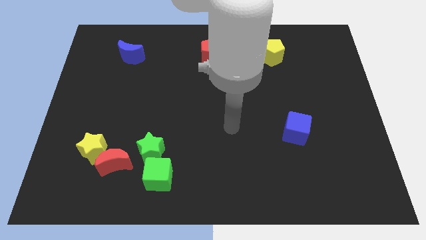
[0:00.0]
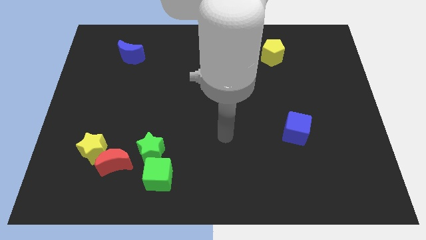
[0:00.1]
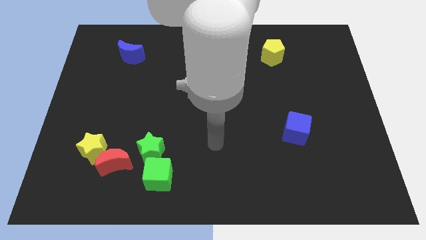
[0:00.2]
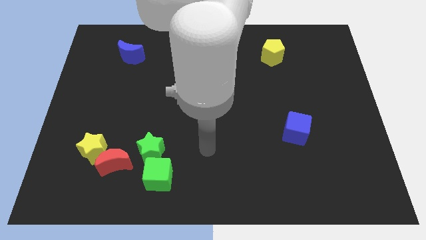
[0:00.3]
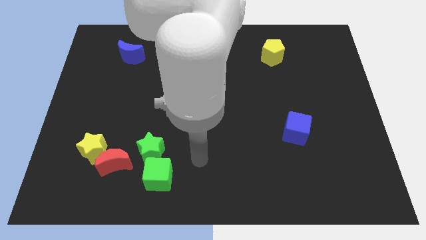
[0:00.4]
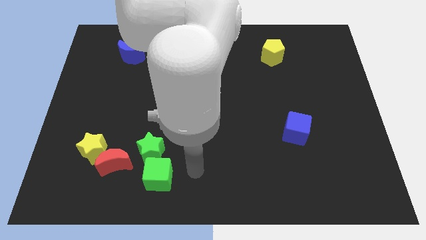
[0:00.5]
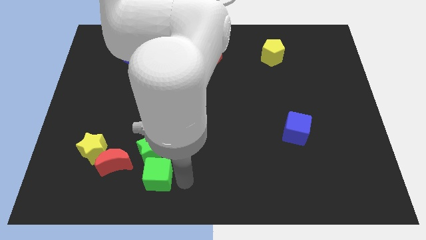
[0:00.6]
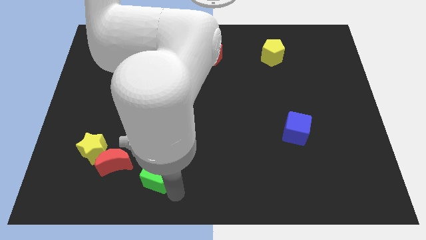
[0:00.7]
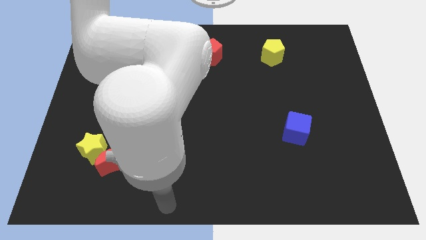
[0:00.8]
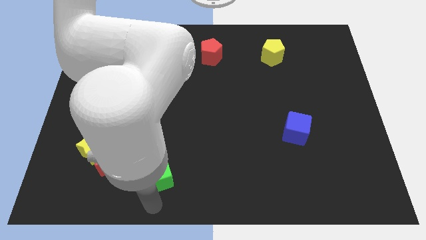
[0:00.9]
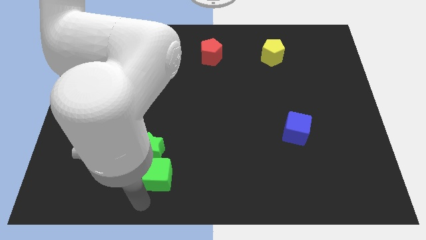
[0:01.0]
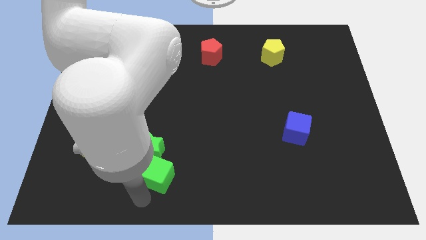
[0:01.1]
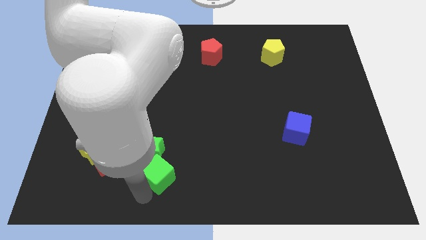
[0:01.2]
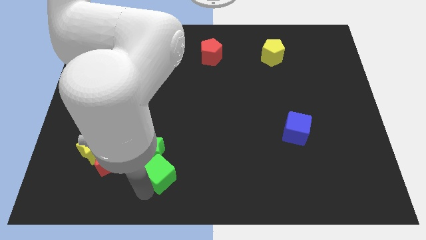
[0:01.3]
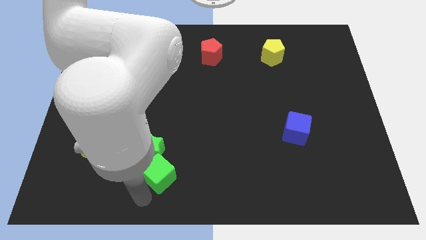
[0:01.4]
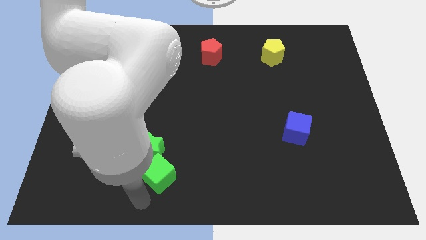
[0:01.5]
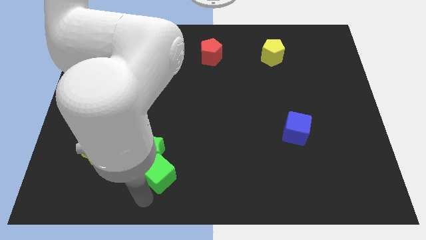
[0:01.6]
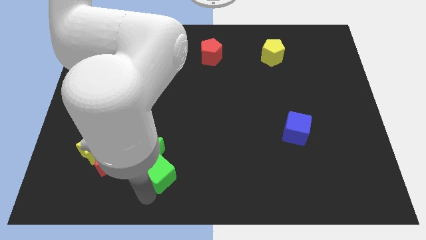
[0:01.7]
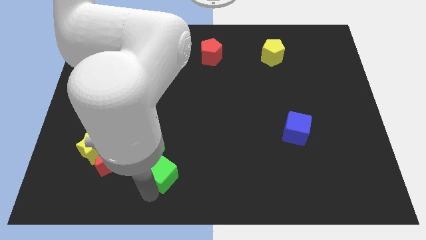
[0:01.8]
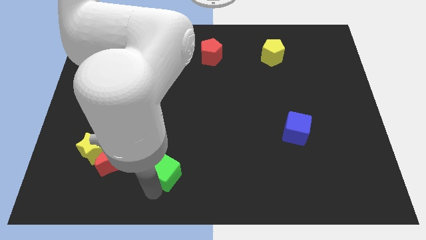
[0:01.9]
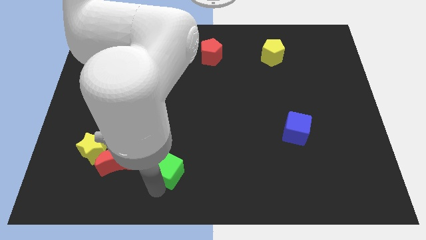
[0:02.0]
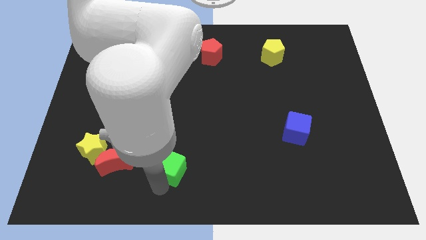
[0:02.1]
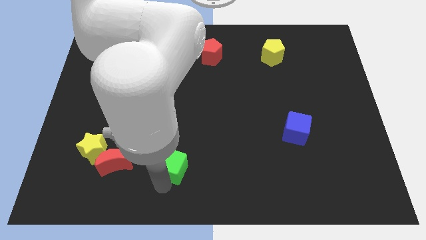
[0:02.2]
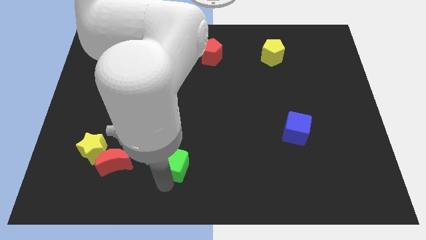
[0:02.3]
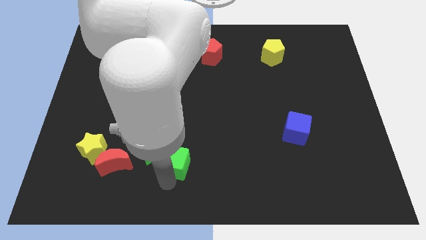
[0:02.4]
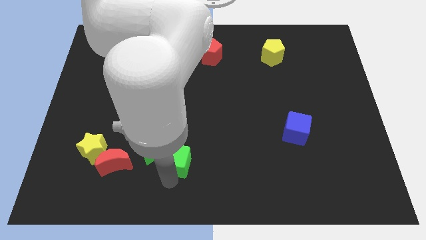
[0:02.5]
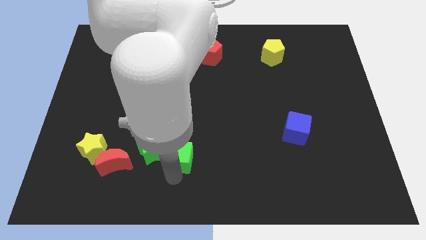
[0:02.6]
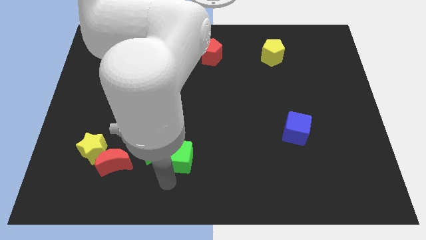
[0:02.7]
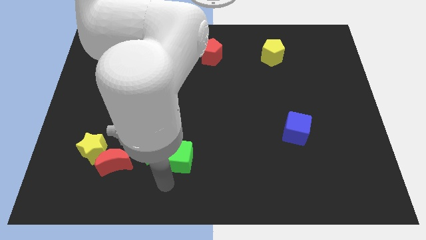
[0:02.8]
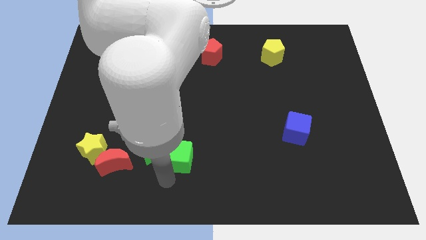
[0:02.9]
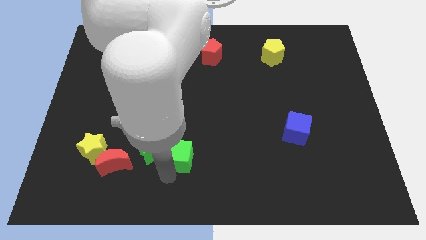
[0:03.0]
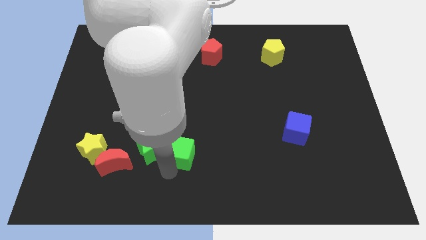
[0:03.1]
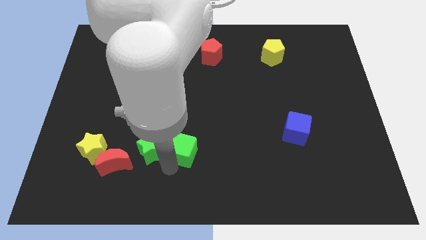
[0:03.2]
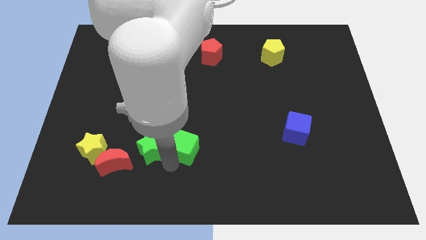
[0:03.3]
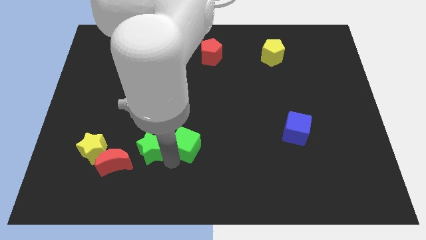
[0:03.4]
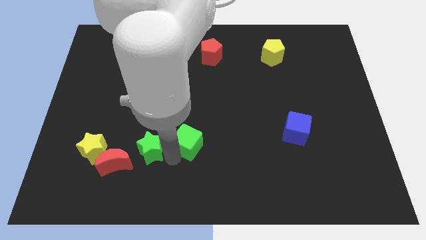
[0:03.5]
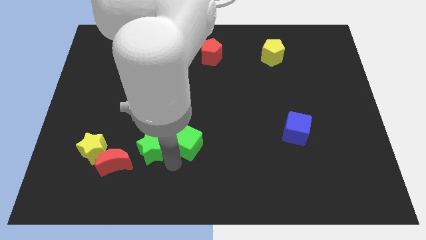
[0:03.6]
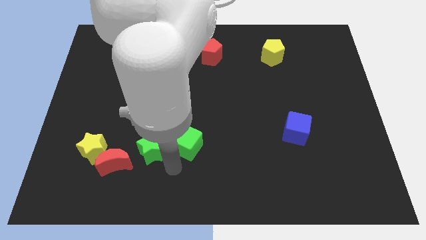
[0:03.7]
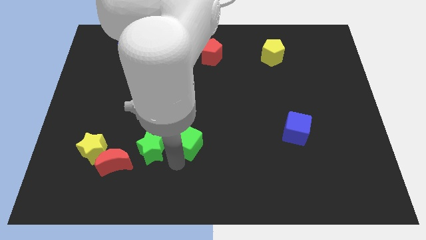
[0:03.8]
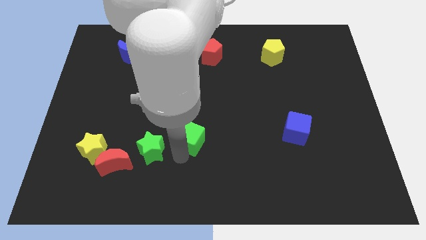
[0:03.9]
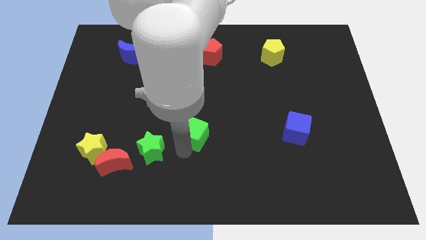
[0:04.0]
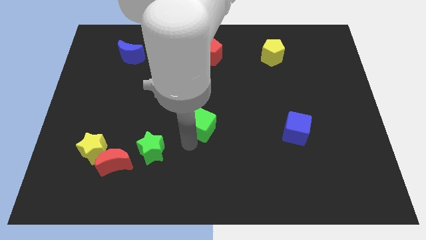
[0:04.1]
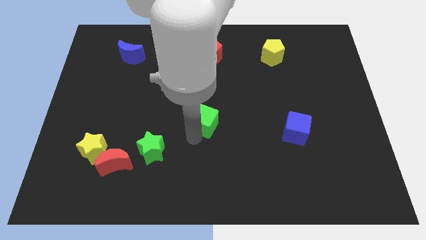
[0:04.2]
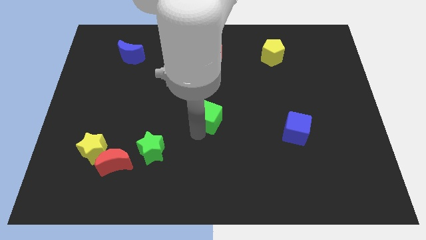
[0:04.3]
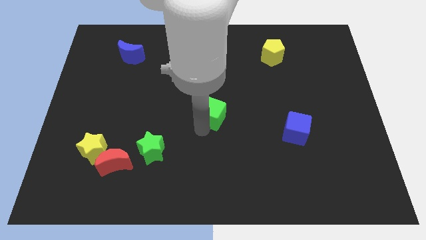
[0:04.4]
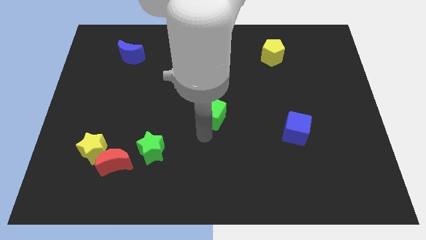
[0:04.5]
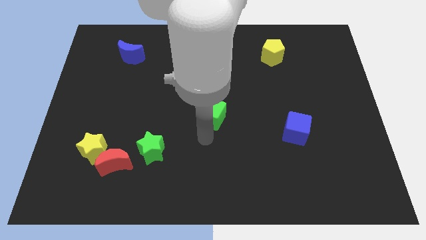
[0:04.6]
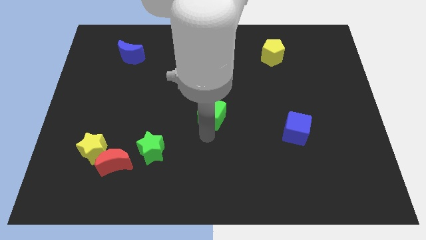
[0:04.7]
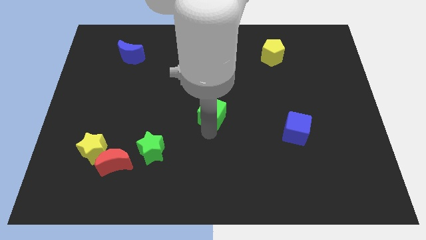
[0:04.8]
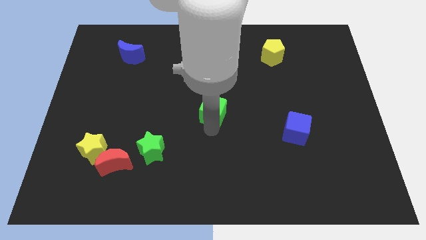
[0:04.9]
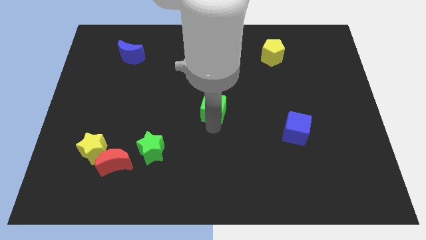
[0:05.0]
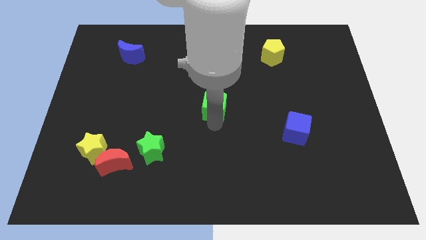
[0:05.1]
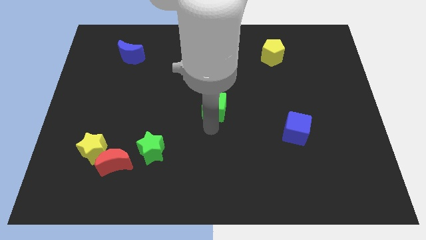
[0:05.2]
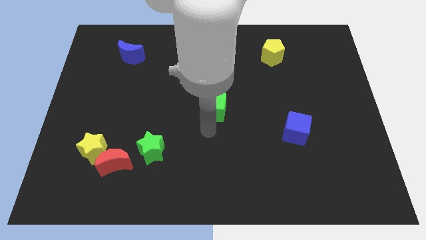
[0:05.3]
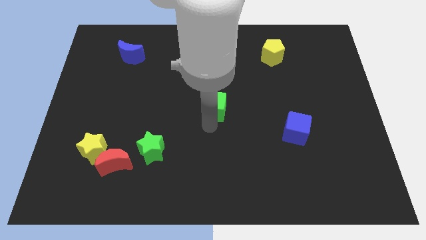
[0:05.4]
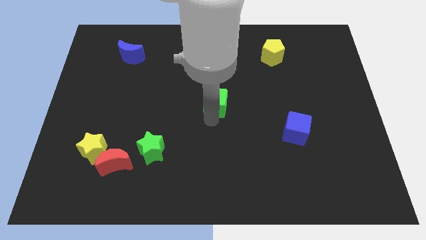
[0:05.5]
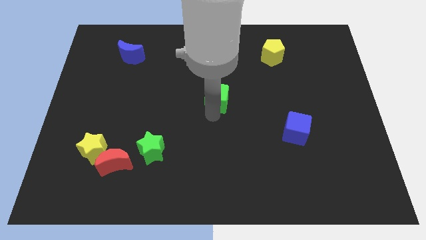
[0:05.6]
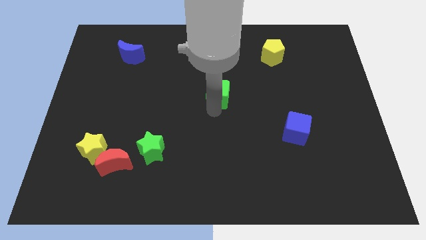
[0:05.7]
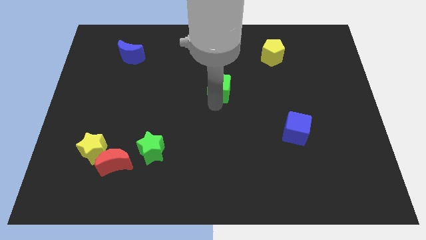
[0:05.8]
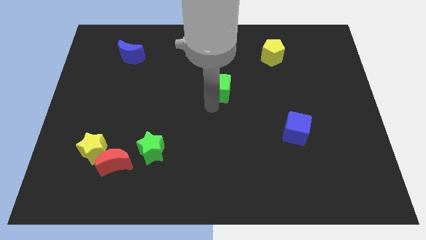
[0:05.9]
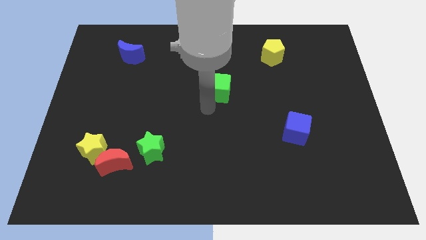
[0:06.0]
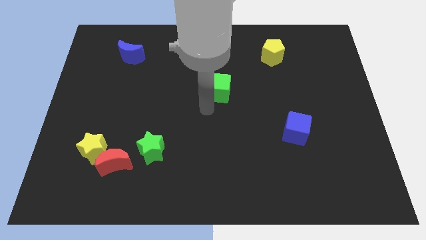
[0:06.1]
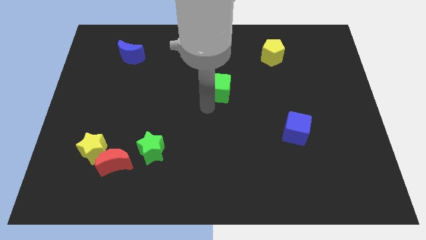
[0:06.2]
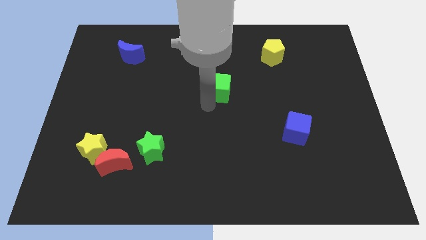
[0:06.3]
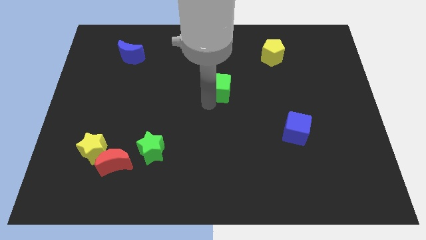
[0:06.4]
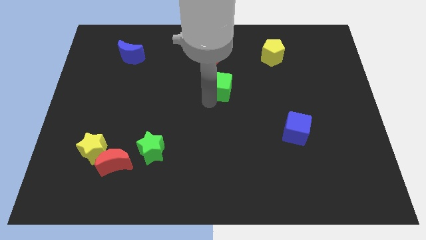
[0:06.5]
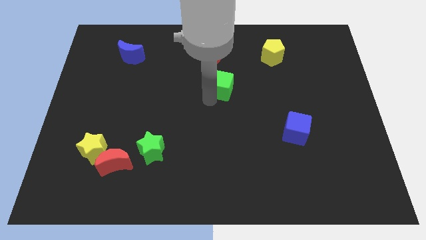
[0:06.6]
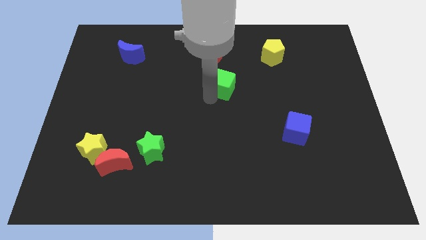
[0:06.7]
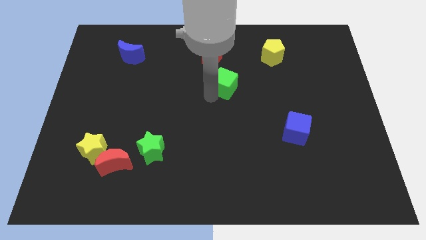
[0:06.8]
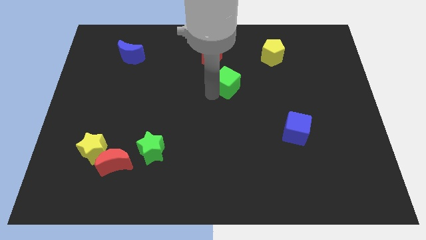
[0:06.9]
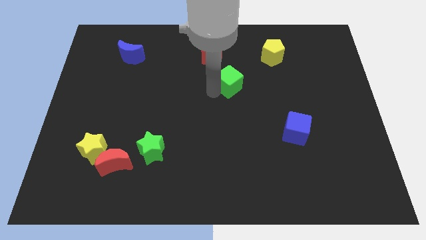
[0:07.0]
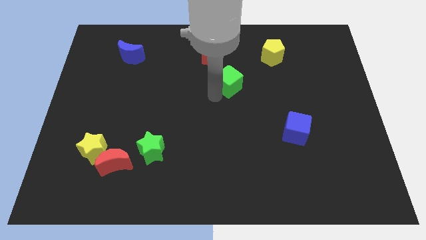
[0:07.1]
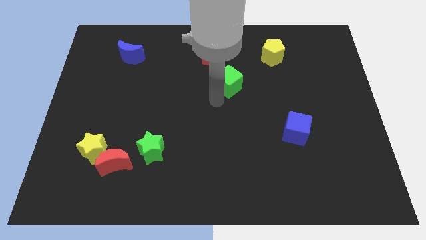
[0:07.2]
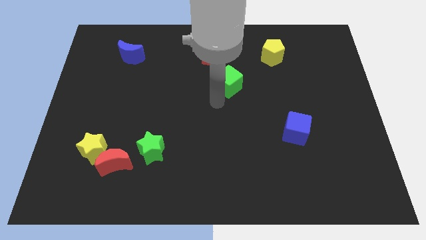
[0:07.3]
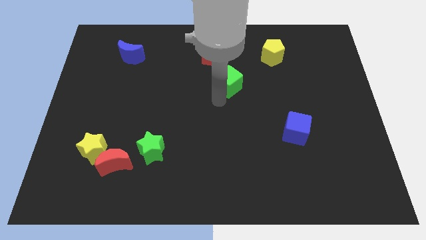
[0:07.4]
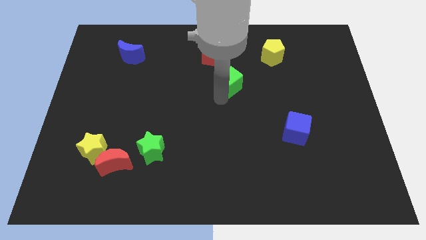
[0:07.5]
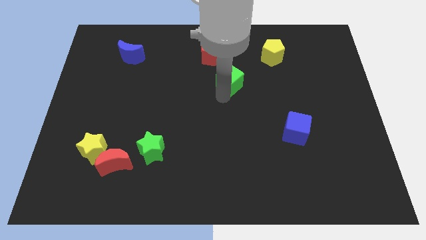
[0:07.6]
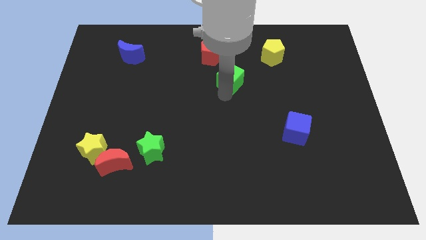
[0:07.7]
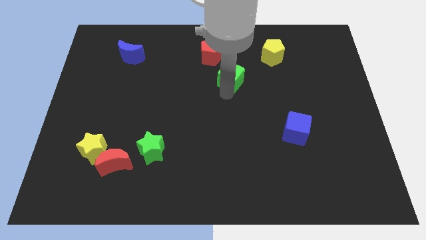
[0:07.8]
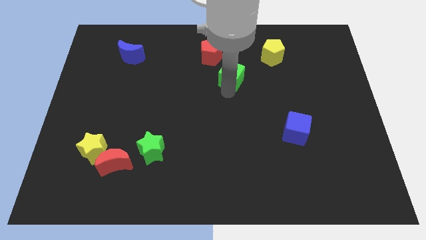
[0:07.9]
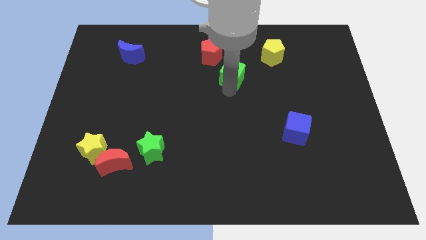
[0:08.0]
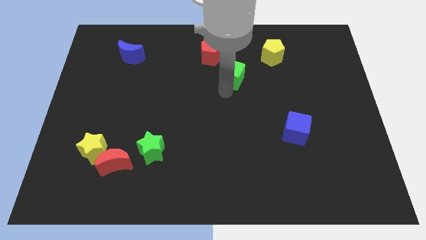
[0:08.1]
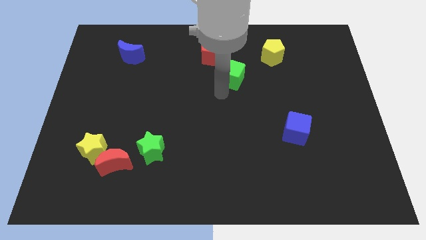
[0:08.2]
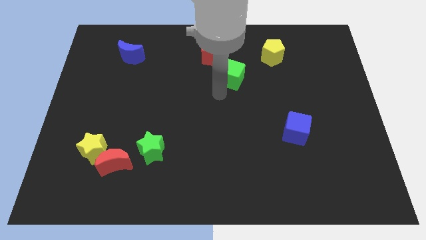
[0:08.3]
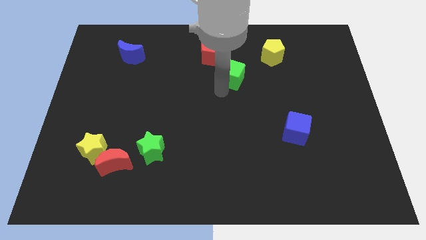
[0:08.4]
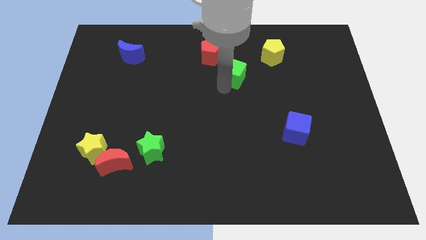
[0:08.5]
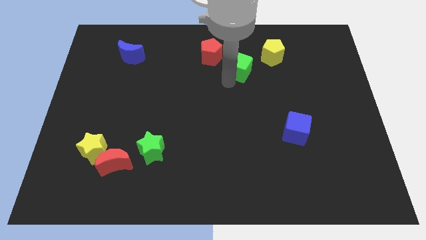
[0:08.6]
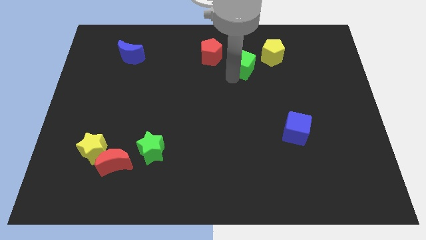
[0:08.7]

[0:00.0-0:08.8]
slide the green cube right of the red pentagon
